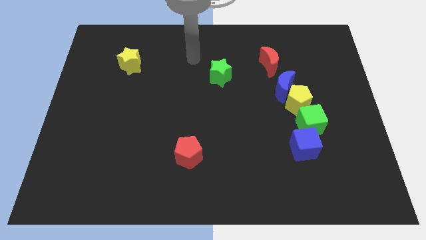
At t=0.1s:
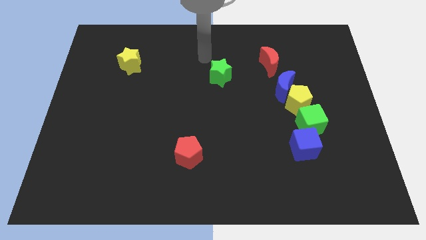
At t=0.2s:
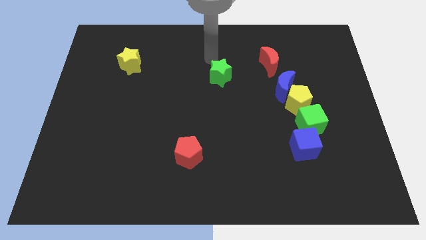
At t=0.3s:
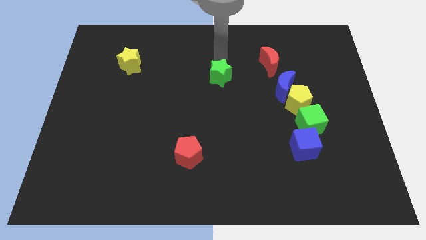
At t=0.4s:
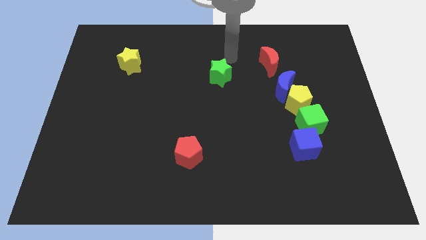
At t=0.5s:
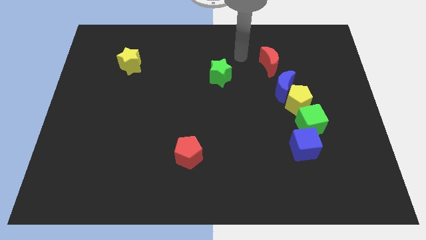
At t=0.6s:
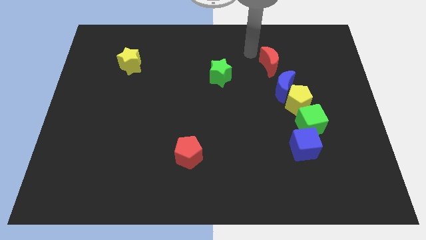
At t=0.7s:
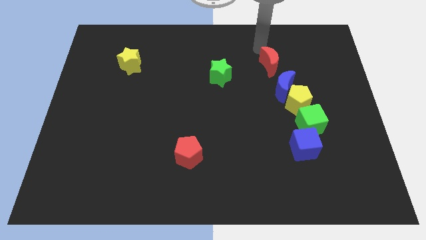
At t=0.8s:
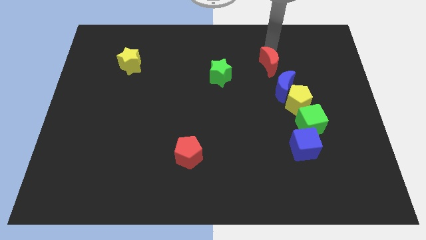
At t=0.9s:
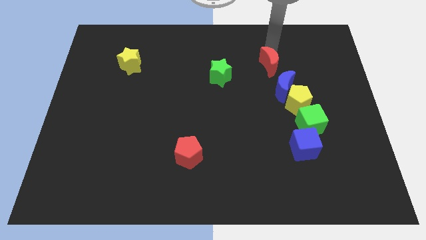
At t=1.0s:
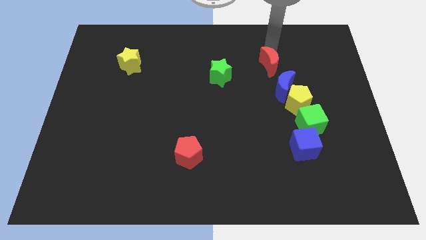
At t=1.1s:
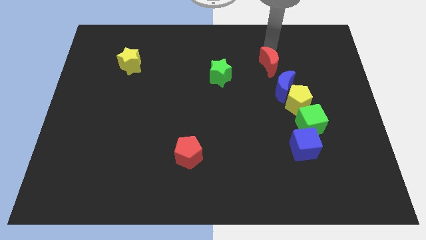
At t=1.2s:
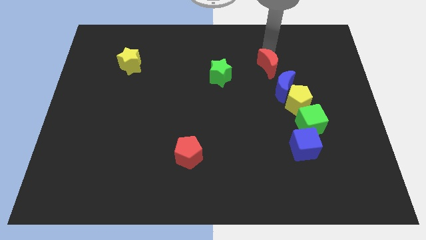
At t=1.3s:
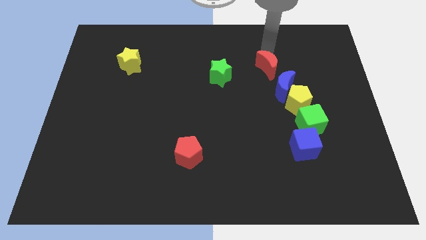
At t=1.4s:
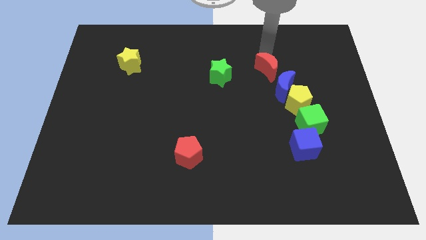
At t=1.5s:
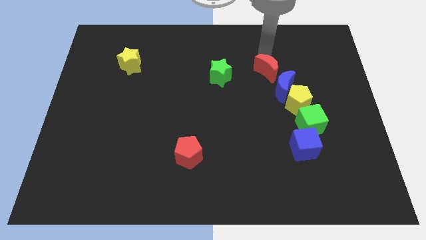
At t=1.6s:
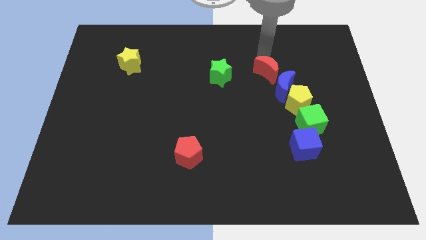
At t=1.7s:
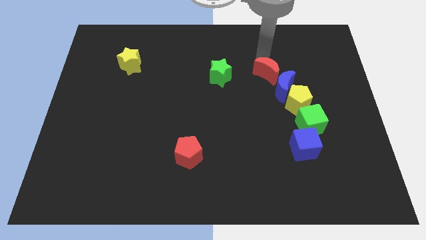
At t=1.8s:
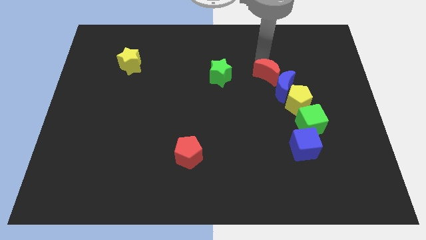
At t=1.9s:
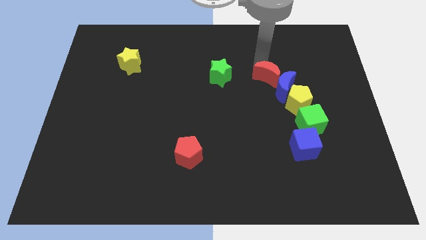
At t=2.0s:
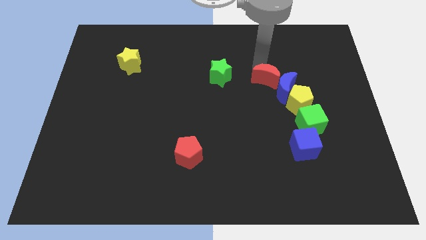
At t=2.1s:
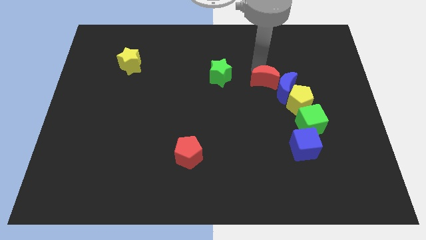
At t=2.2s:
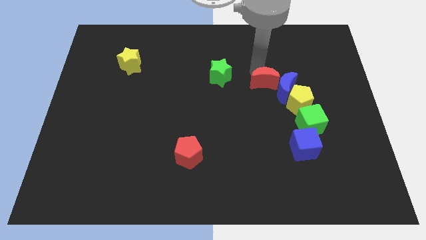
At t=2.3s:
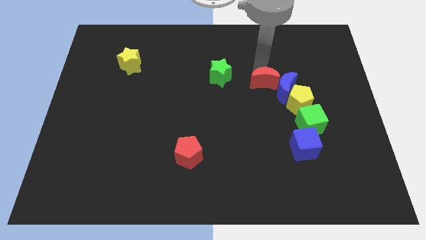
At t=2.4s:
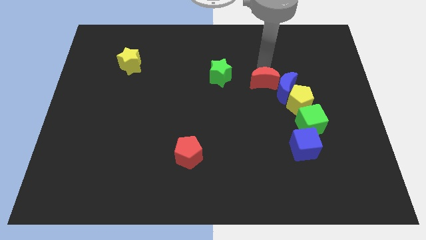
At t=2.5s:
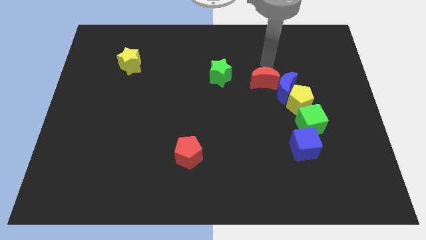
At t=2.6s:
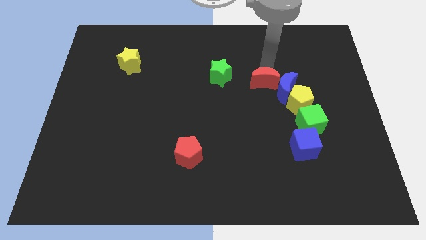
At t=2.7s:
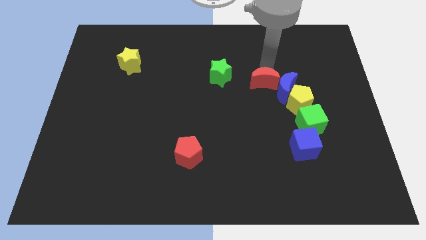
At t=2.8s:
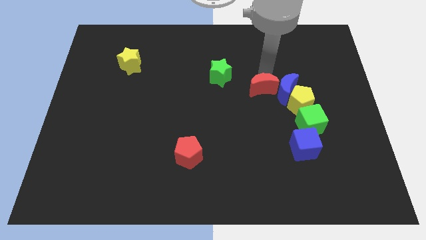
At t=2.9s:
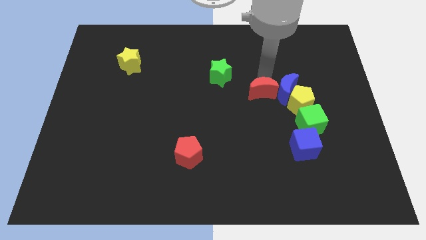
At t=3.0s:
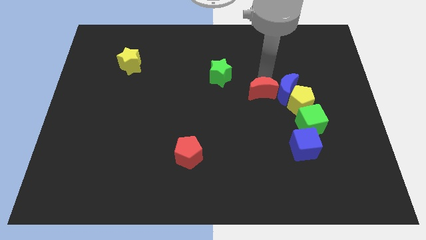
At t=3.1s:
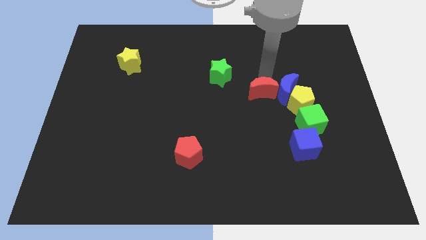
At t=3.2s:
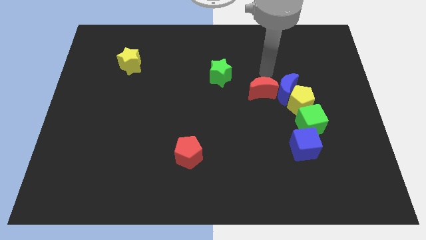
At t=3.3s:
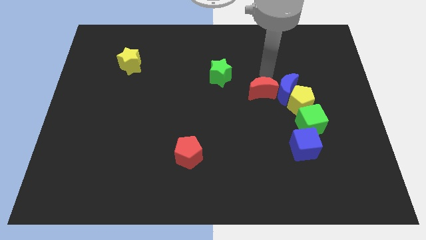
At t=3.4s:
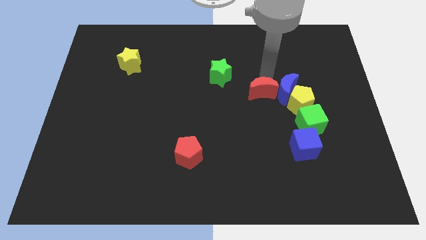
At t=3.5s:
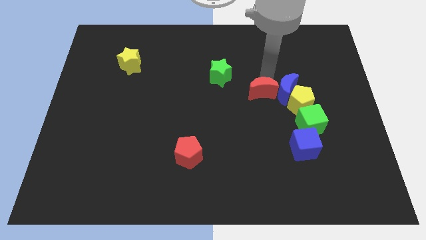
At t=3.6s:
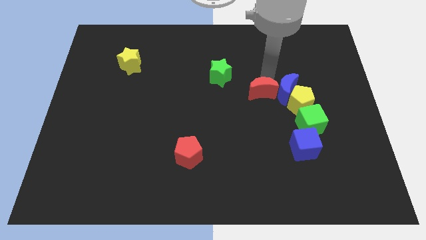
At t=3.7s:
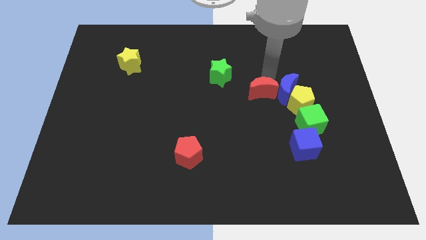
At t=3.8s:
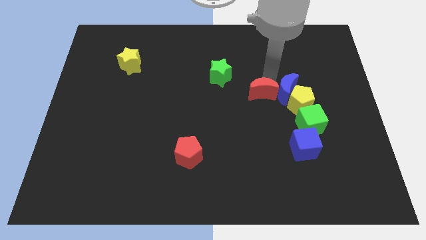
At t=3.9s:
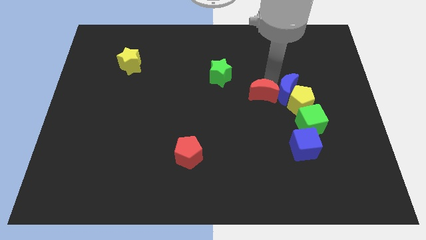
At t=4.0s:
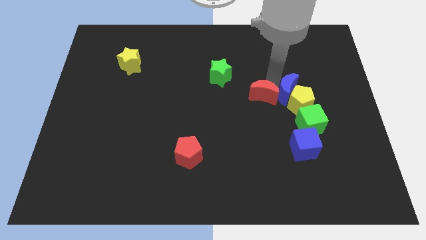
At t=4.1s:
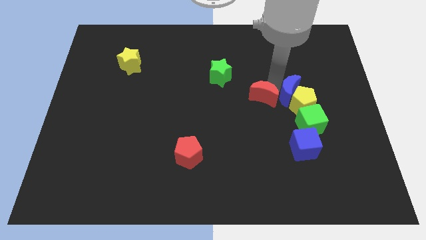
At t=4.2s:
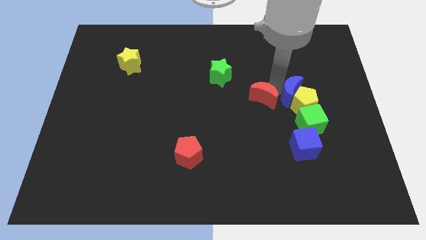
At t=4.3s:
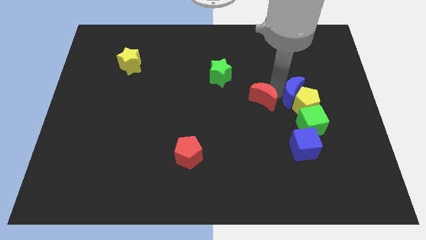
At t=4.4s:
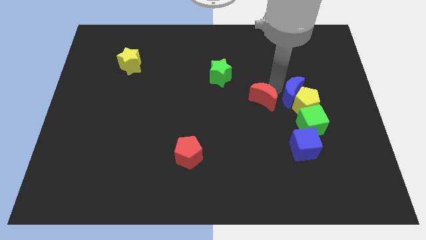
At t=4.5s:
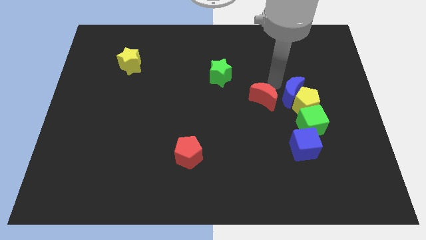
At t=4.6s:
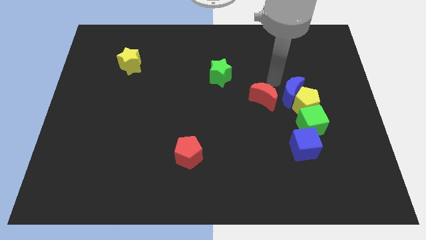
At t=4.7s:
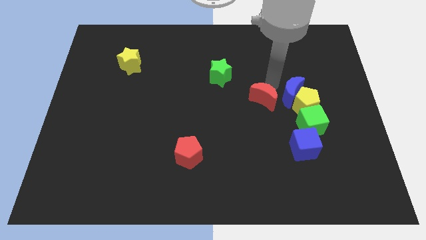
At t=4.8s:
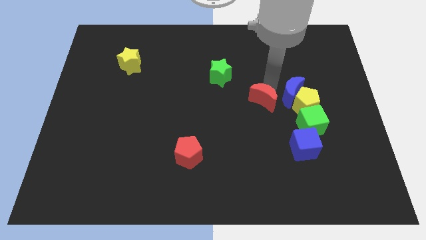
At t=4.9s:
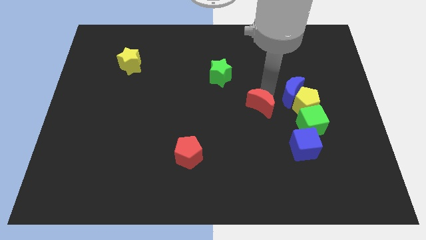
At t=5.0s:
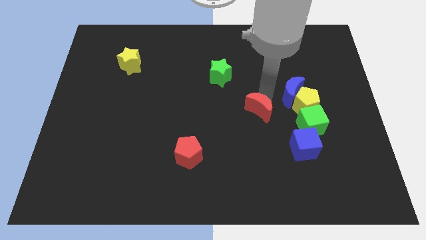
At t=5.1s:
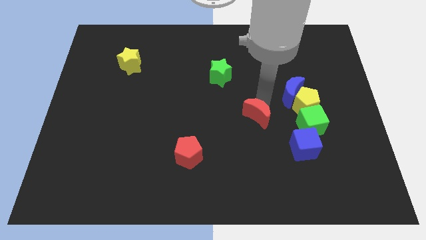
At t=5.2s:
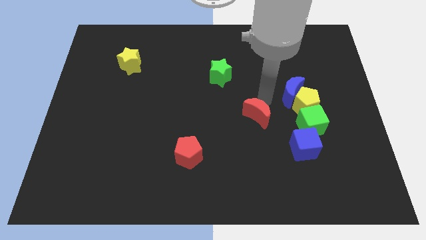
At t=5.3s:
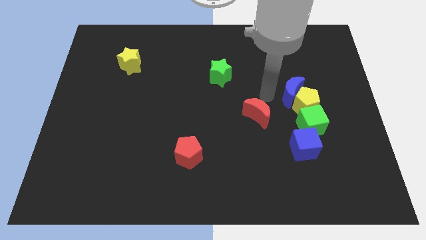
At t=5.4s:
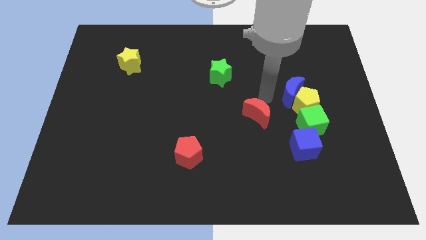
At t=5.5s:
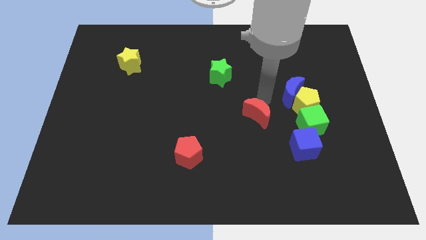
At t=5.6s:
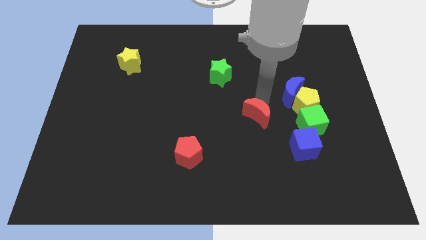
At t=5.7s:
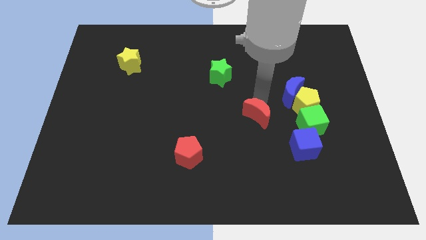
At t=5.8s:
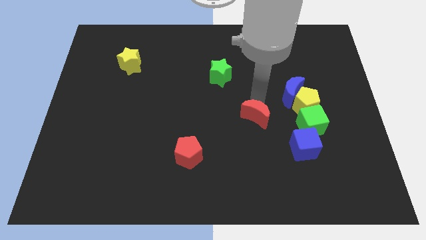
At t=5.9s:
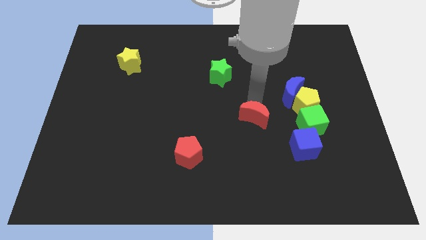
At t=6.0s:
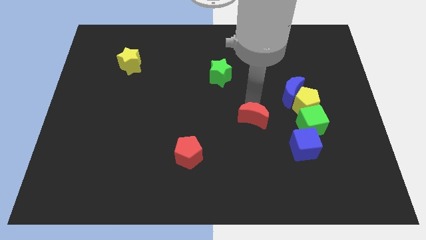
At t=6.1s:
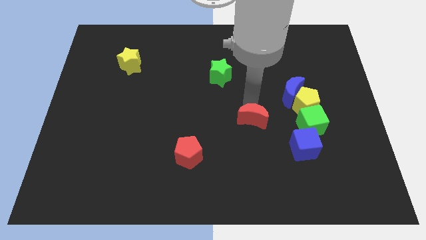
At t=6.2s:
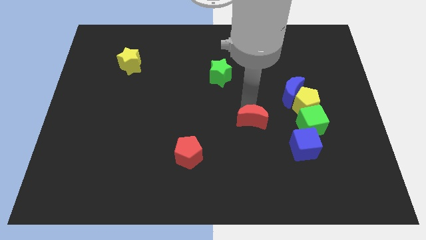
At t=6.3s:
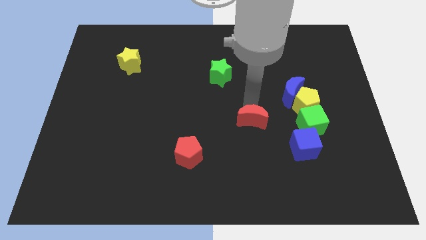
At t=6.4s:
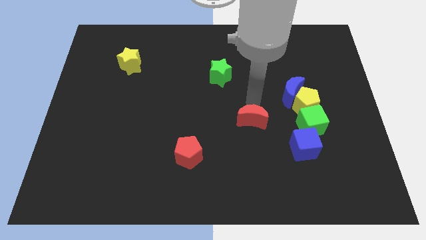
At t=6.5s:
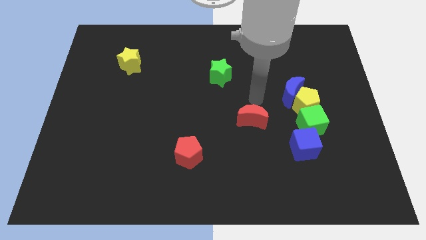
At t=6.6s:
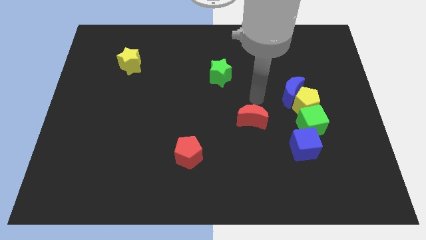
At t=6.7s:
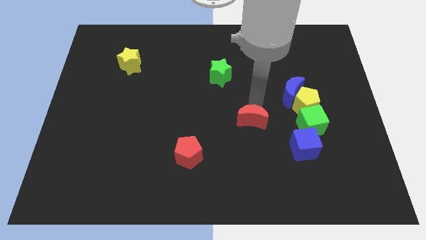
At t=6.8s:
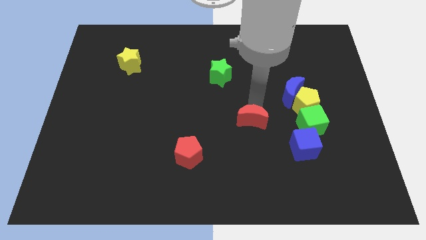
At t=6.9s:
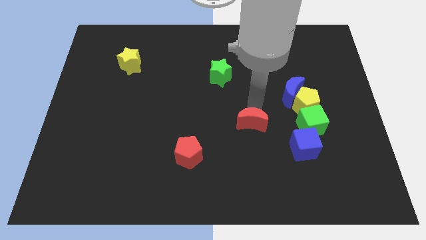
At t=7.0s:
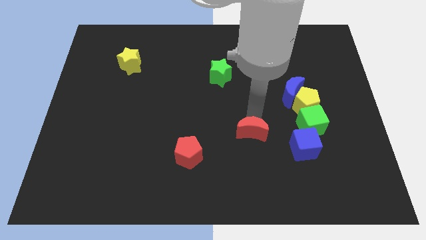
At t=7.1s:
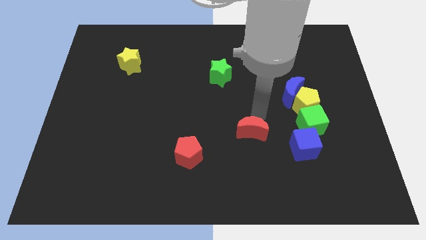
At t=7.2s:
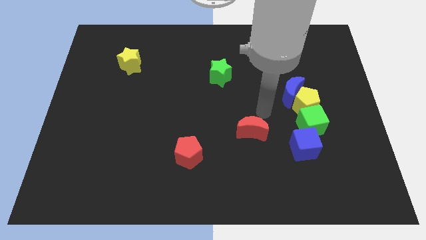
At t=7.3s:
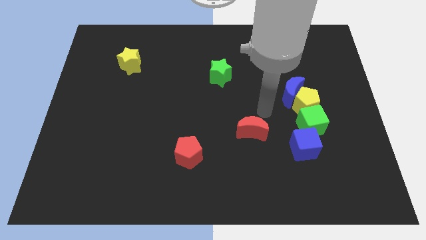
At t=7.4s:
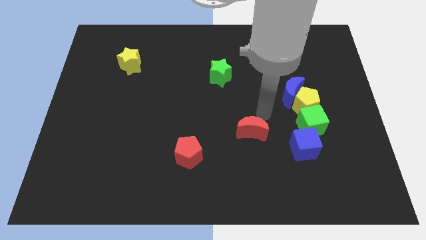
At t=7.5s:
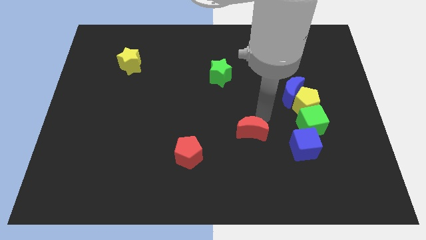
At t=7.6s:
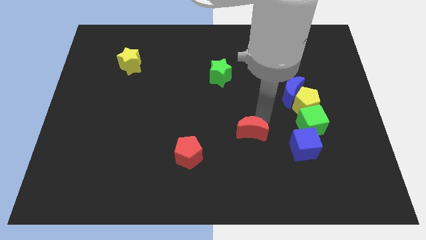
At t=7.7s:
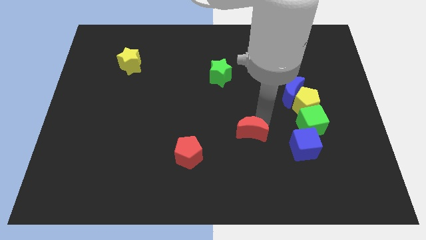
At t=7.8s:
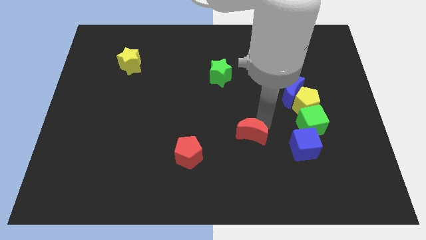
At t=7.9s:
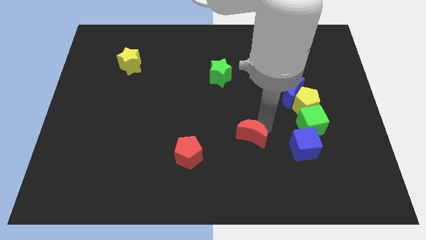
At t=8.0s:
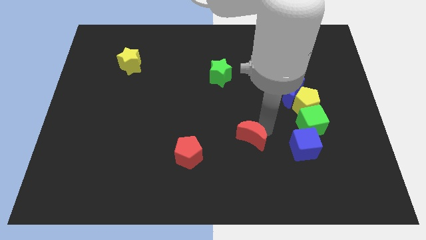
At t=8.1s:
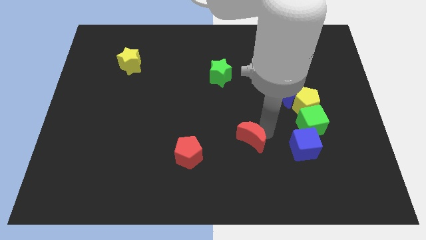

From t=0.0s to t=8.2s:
slide the red moon to the right of the red pentagon
